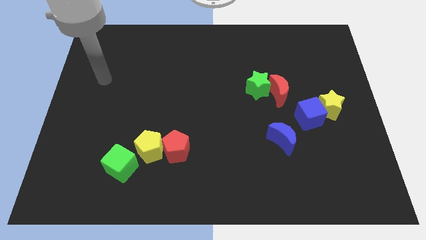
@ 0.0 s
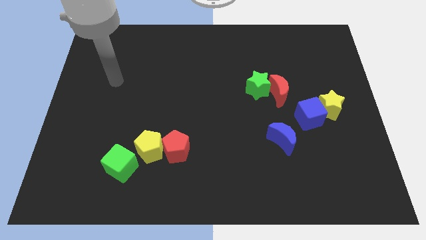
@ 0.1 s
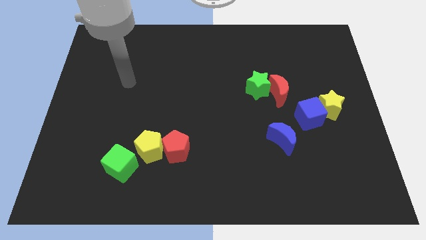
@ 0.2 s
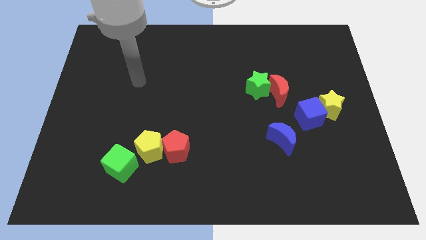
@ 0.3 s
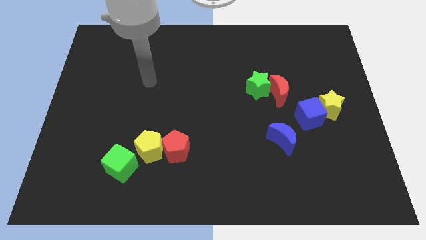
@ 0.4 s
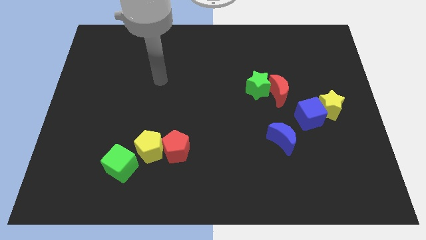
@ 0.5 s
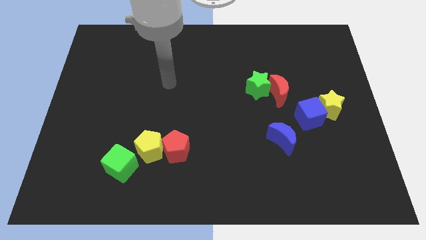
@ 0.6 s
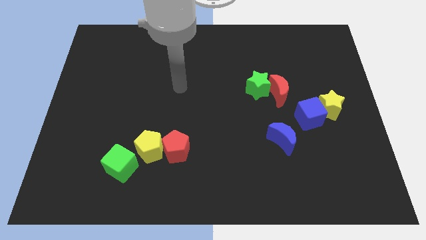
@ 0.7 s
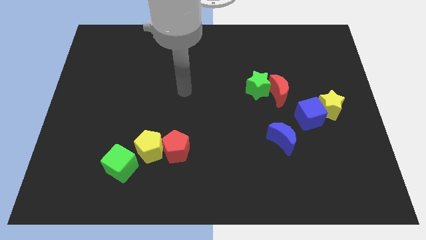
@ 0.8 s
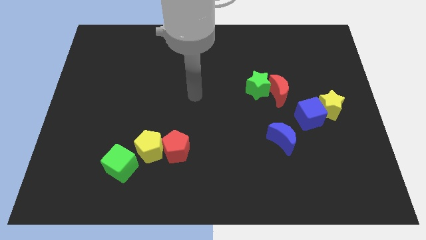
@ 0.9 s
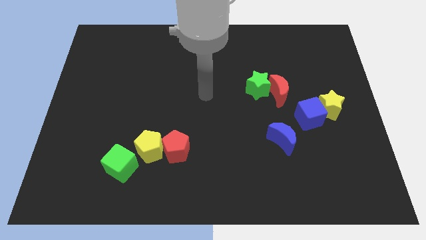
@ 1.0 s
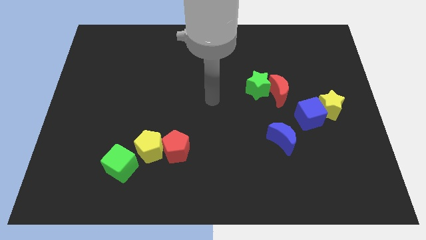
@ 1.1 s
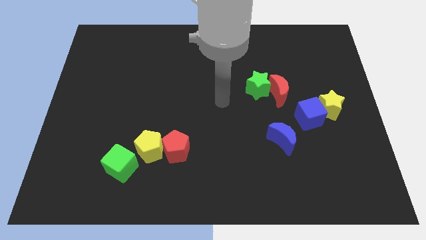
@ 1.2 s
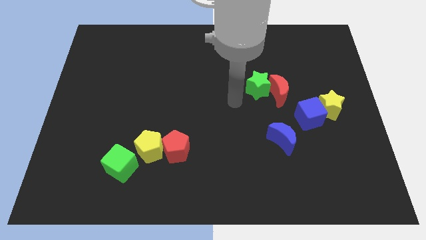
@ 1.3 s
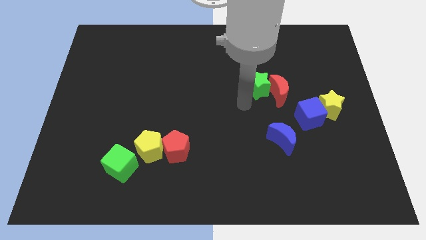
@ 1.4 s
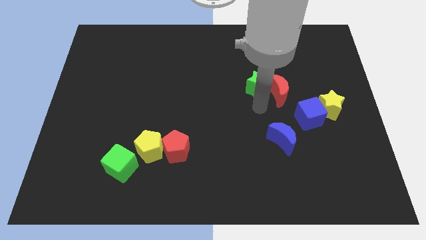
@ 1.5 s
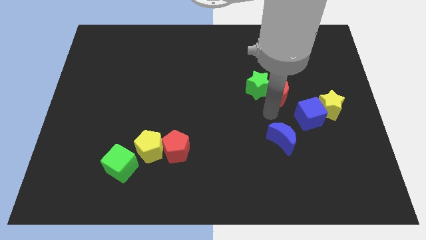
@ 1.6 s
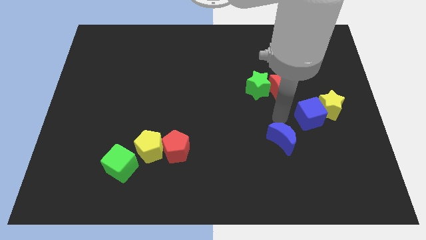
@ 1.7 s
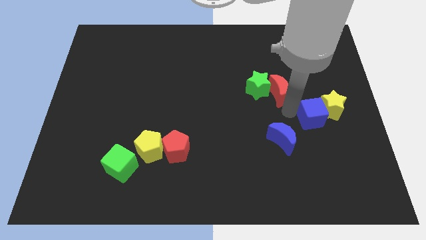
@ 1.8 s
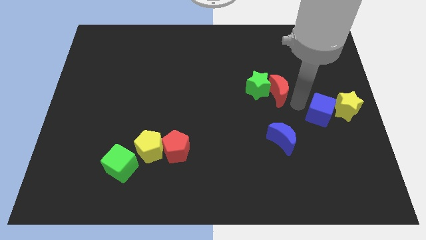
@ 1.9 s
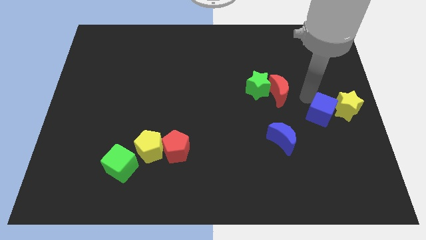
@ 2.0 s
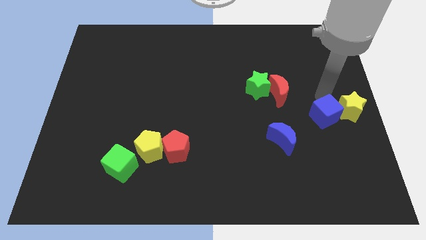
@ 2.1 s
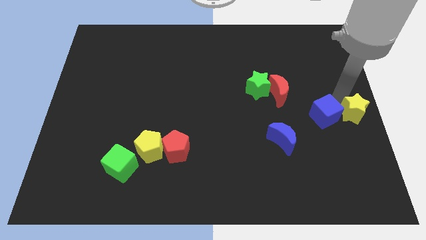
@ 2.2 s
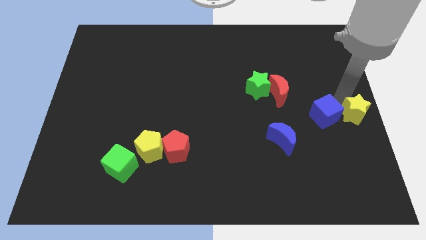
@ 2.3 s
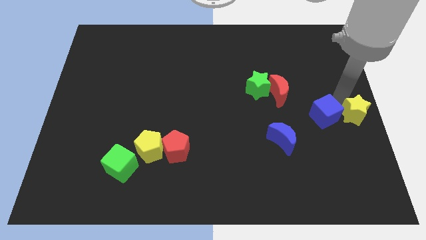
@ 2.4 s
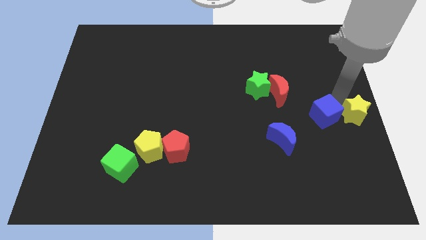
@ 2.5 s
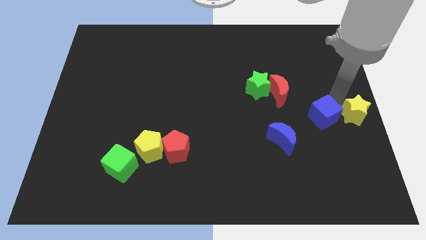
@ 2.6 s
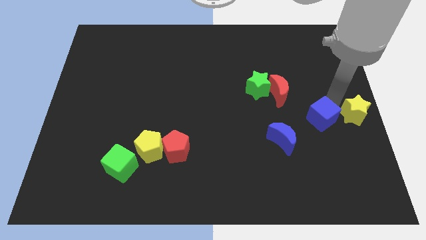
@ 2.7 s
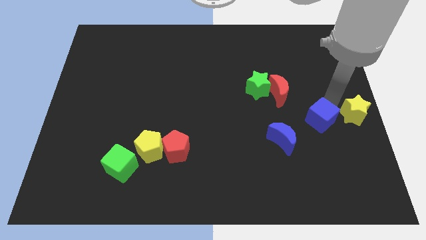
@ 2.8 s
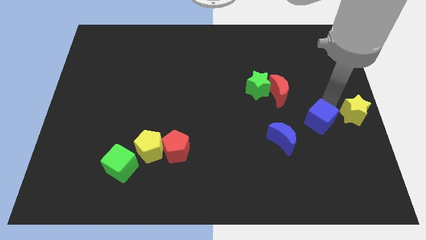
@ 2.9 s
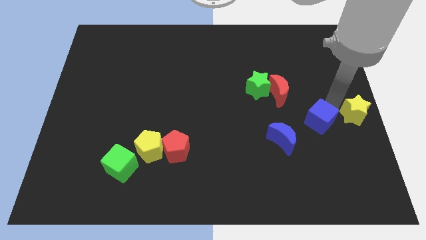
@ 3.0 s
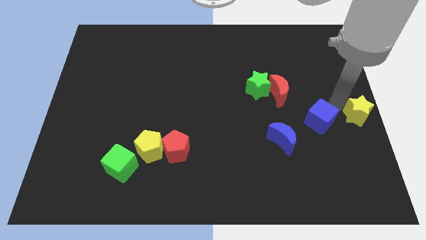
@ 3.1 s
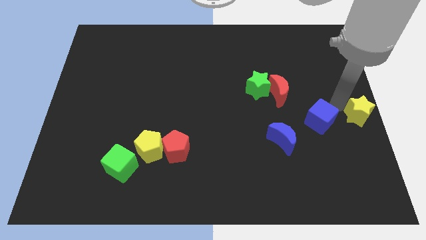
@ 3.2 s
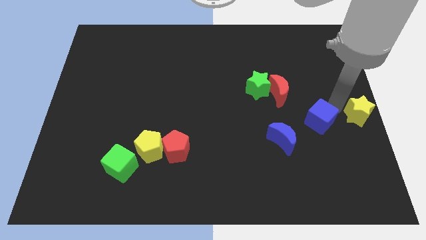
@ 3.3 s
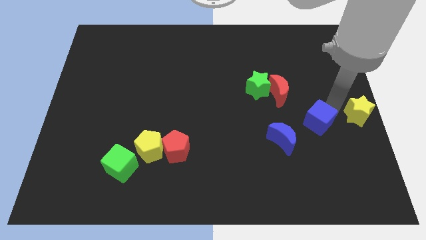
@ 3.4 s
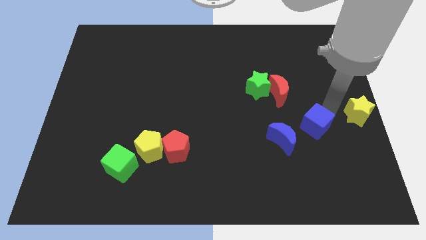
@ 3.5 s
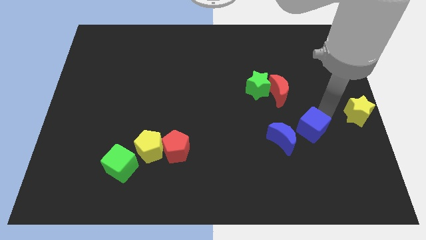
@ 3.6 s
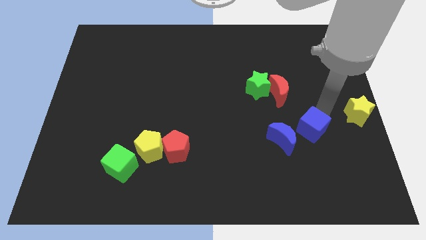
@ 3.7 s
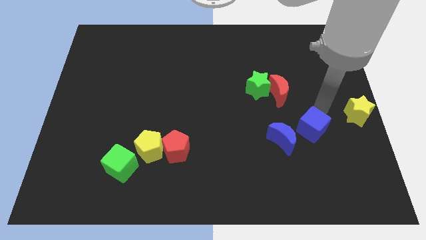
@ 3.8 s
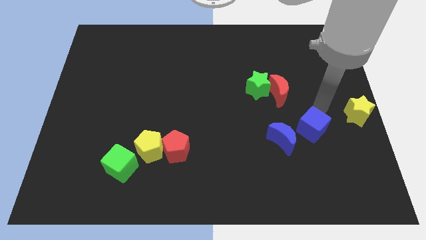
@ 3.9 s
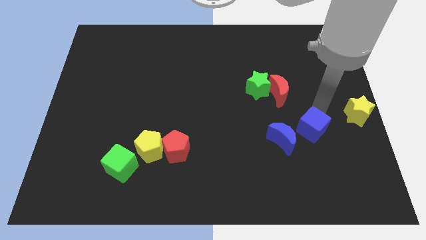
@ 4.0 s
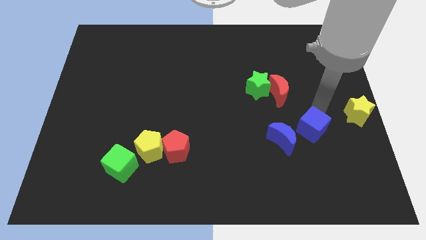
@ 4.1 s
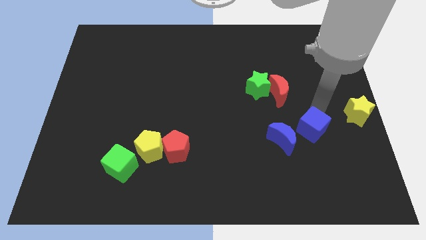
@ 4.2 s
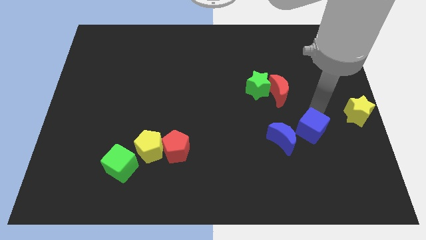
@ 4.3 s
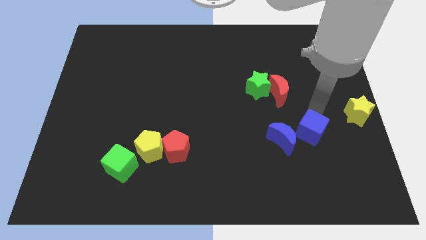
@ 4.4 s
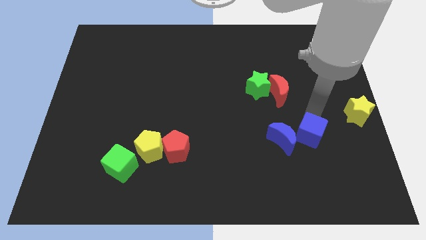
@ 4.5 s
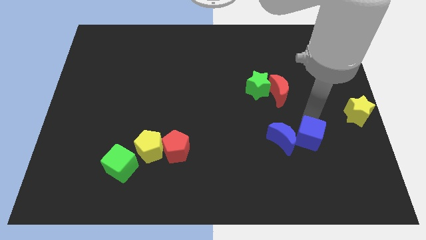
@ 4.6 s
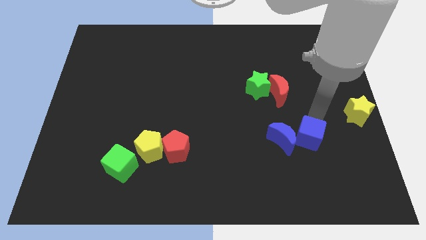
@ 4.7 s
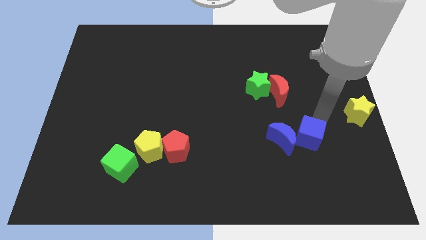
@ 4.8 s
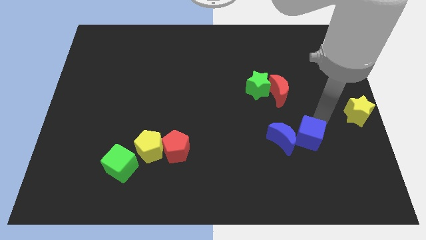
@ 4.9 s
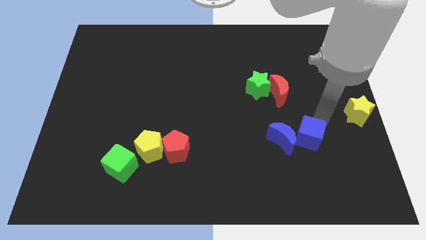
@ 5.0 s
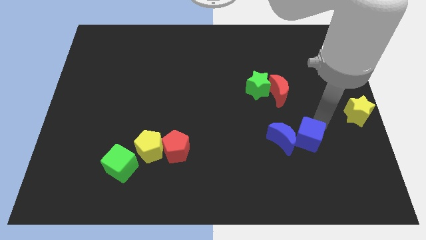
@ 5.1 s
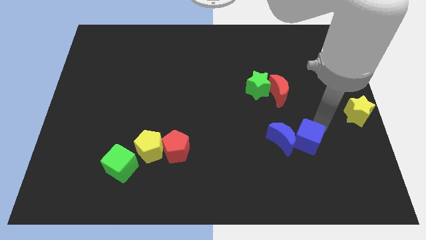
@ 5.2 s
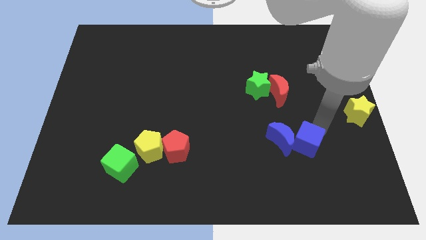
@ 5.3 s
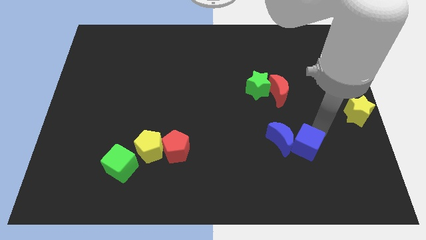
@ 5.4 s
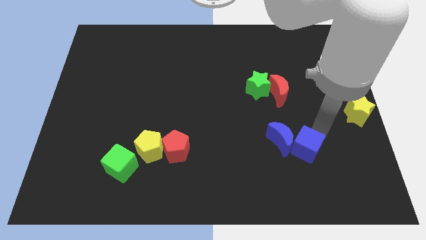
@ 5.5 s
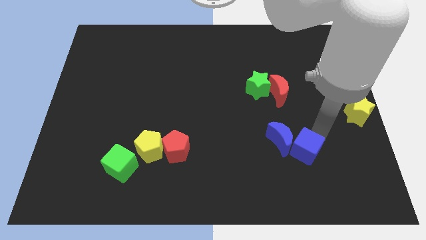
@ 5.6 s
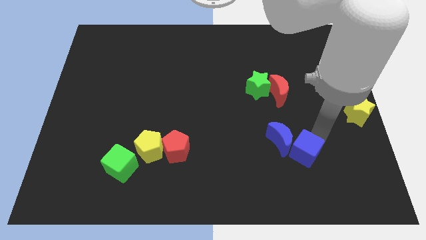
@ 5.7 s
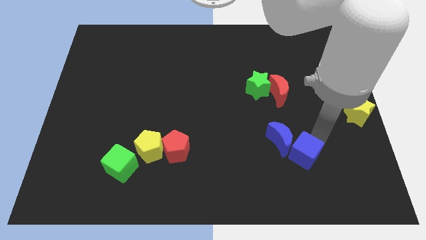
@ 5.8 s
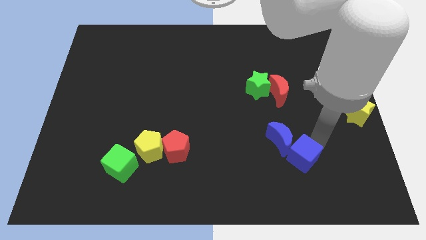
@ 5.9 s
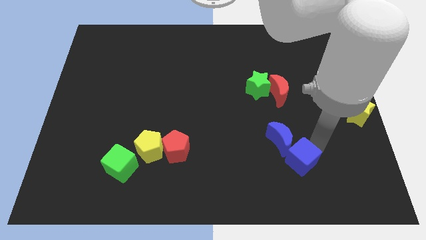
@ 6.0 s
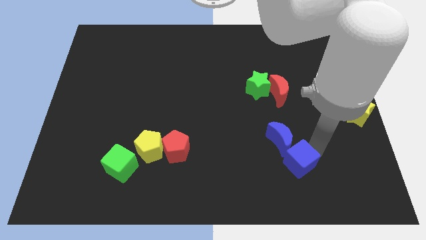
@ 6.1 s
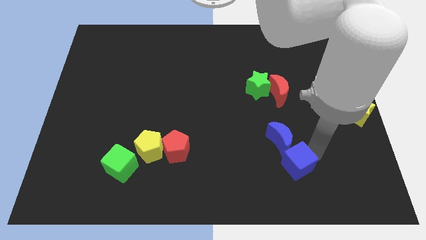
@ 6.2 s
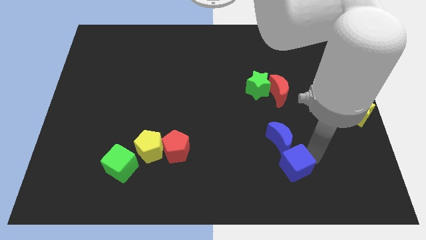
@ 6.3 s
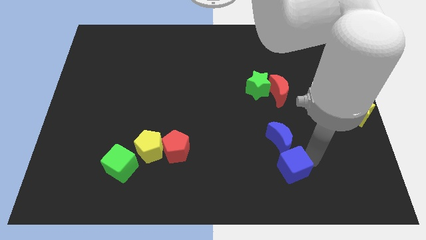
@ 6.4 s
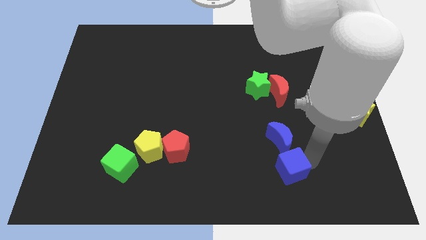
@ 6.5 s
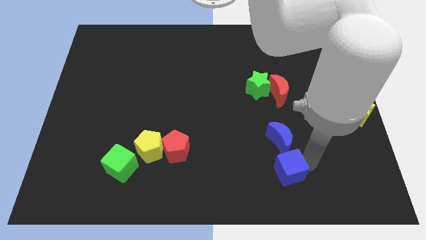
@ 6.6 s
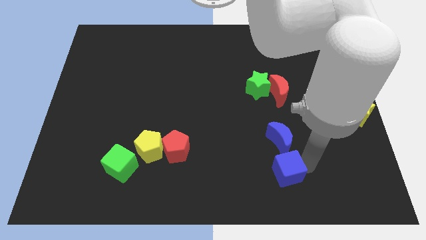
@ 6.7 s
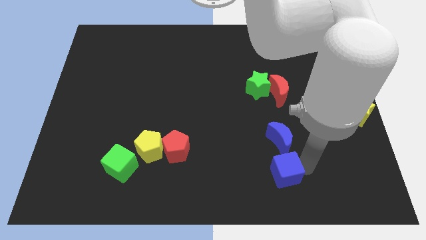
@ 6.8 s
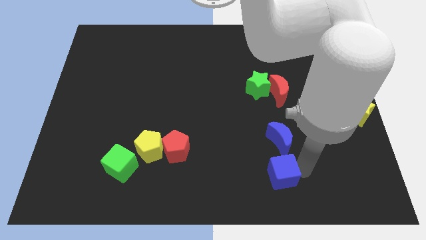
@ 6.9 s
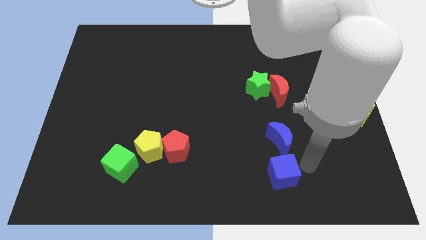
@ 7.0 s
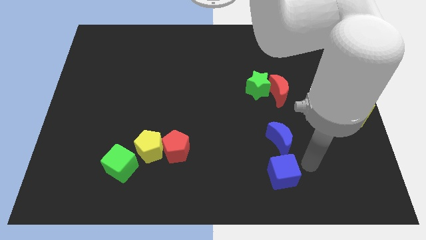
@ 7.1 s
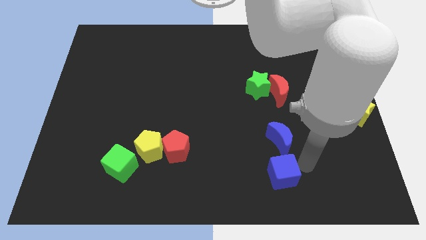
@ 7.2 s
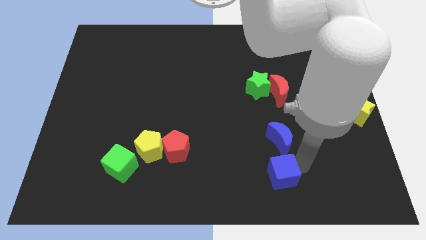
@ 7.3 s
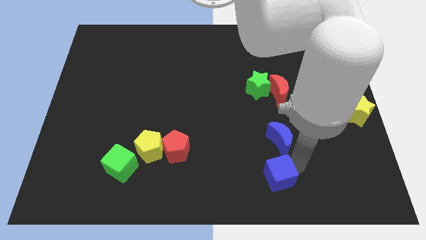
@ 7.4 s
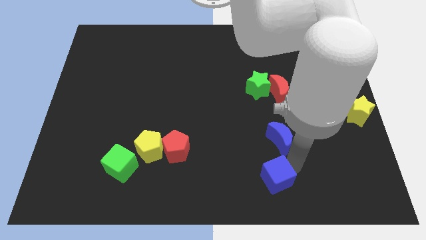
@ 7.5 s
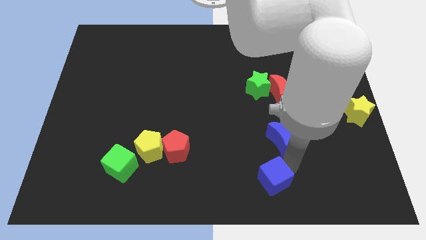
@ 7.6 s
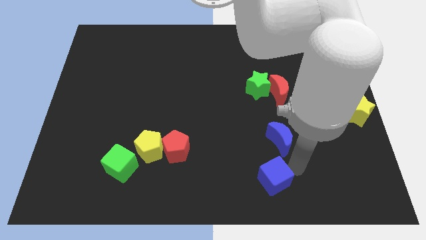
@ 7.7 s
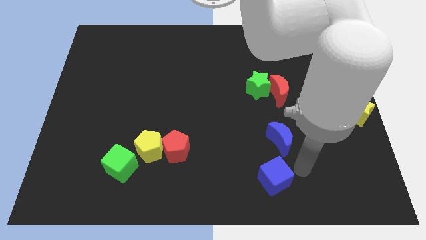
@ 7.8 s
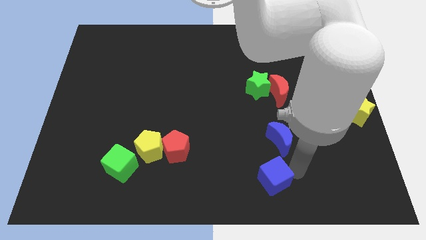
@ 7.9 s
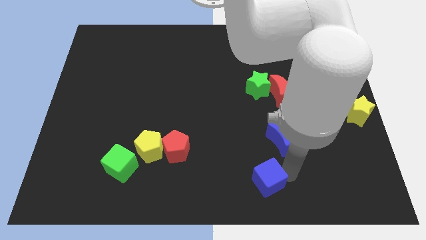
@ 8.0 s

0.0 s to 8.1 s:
put the blue cube to the bottom side
